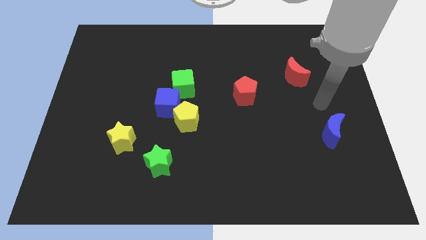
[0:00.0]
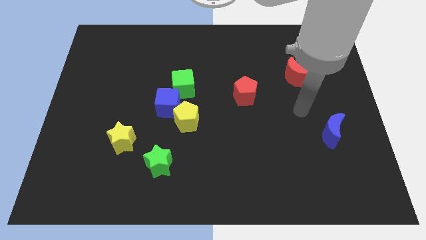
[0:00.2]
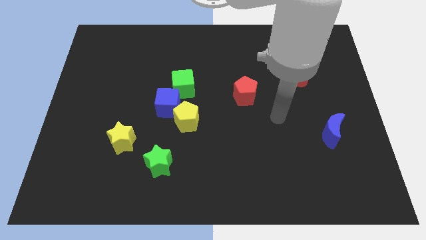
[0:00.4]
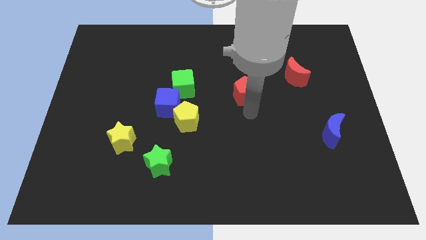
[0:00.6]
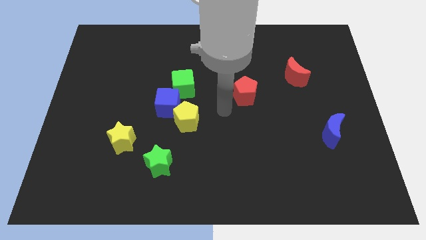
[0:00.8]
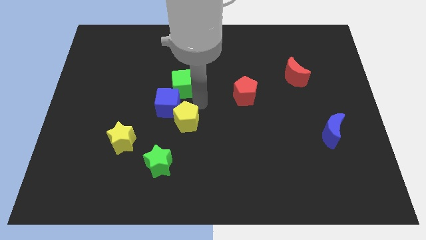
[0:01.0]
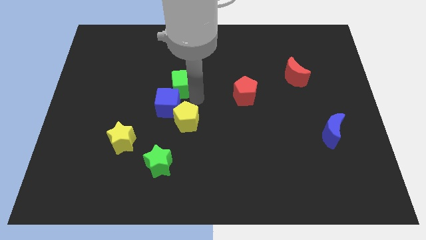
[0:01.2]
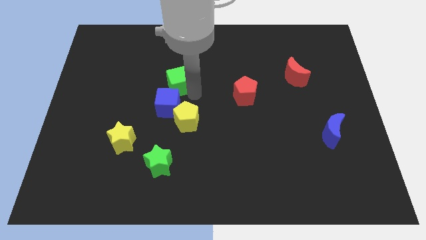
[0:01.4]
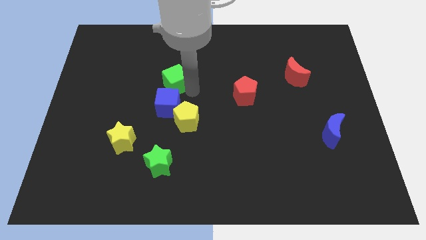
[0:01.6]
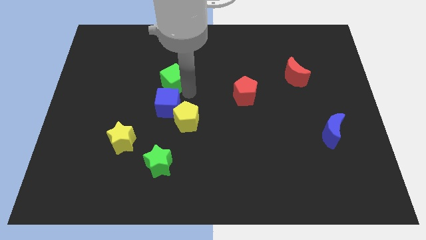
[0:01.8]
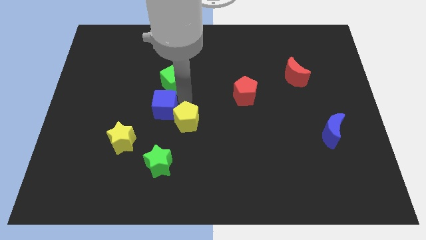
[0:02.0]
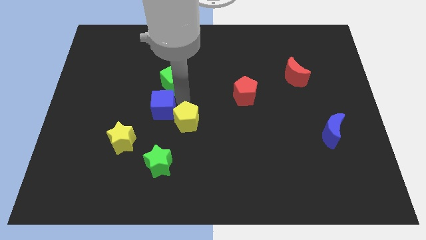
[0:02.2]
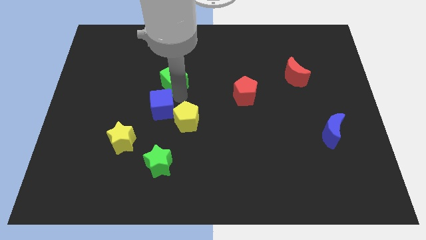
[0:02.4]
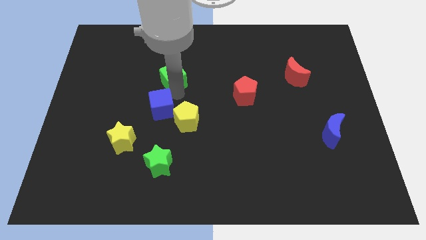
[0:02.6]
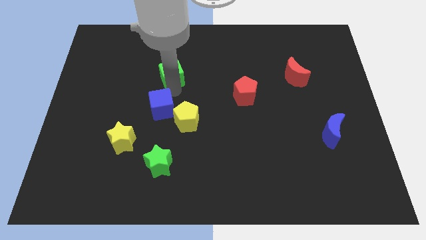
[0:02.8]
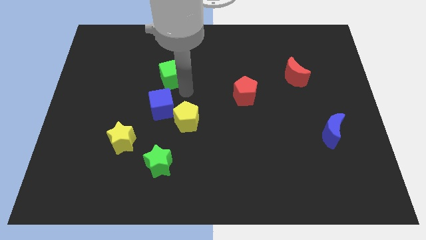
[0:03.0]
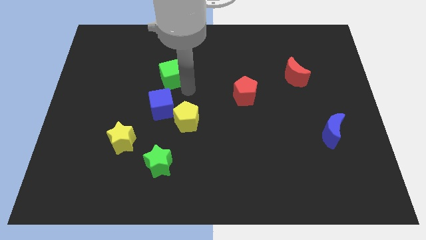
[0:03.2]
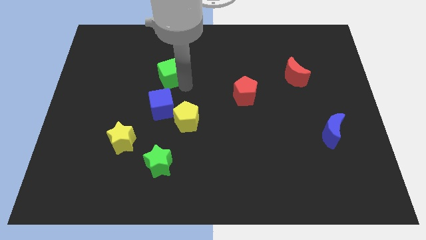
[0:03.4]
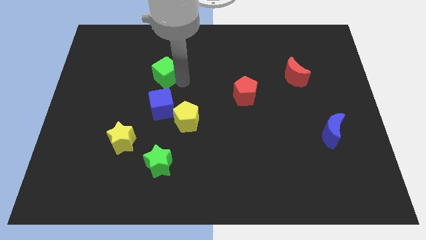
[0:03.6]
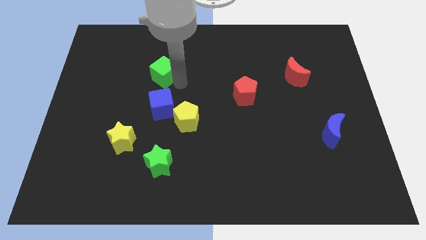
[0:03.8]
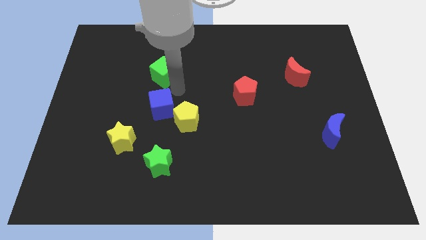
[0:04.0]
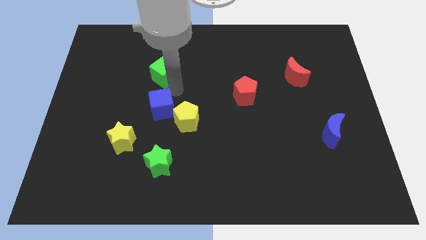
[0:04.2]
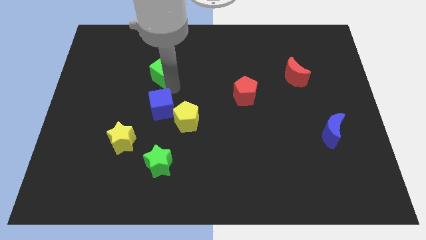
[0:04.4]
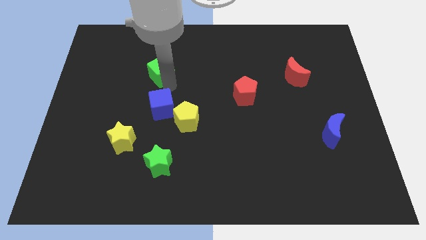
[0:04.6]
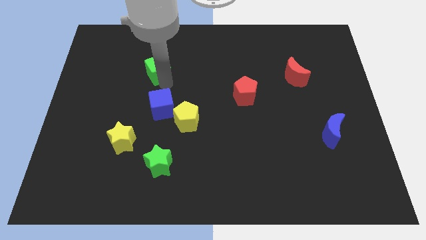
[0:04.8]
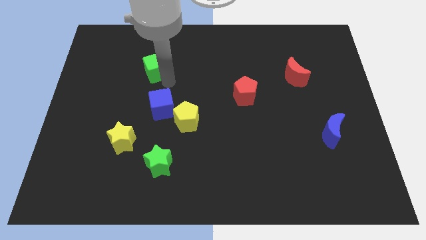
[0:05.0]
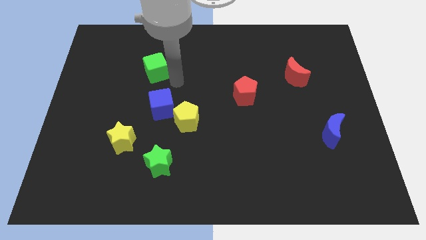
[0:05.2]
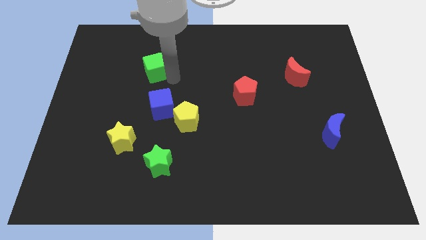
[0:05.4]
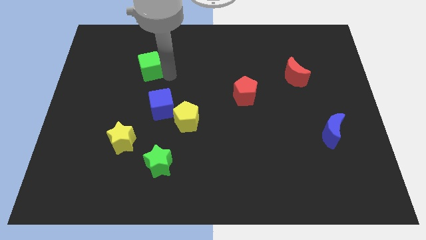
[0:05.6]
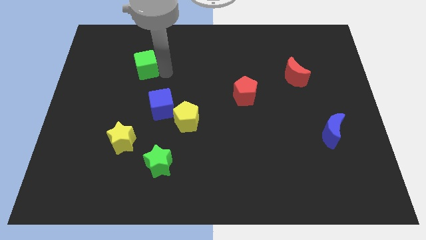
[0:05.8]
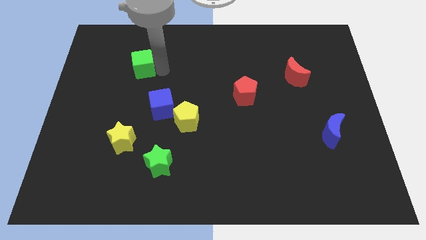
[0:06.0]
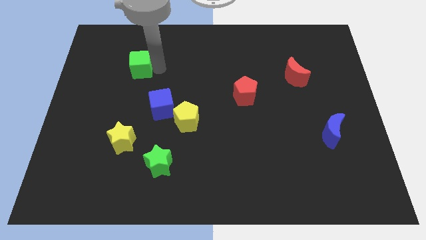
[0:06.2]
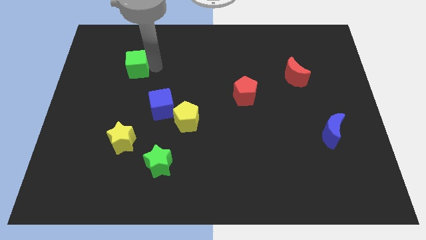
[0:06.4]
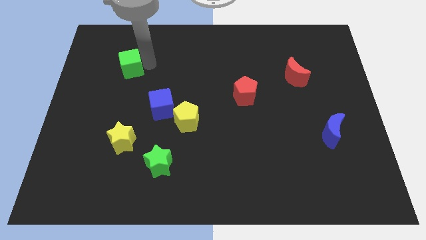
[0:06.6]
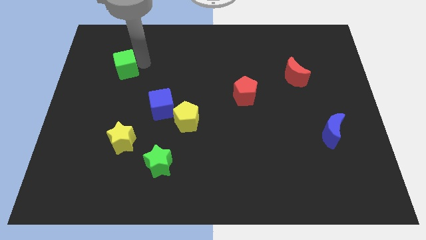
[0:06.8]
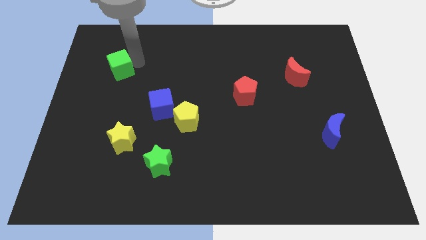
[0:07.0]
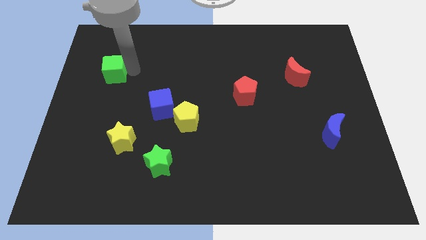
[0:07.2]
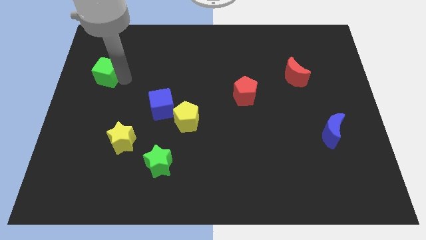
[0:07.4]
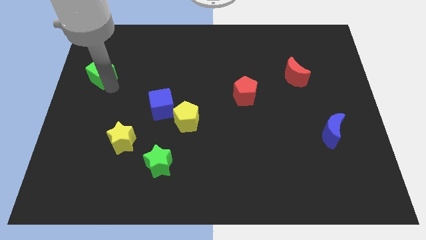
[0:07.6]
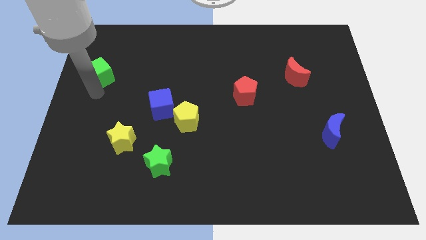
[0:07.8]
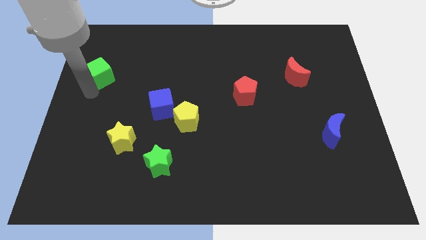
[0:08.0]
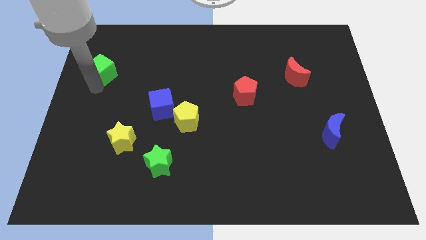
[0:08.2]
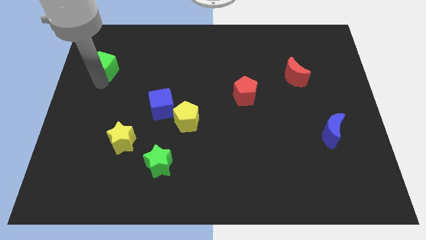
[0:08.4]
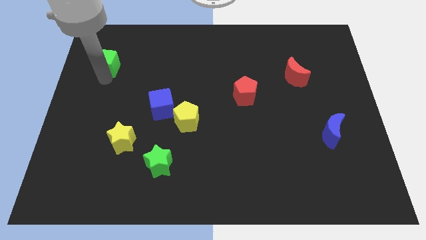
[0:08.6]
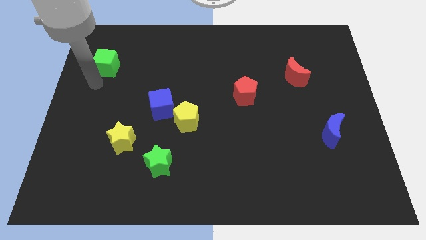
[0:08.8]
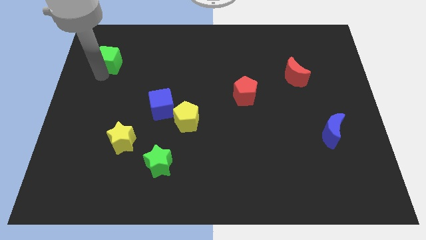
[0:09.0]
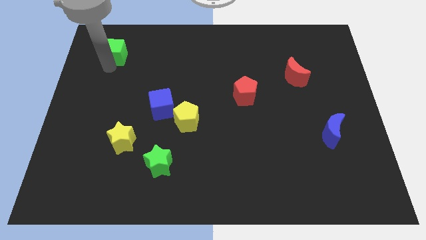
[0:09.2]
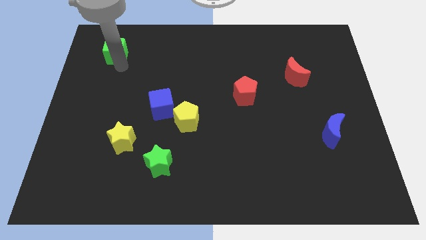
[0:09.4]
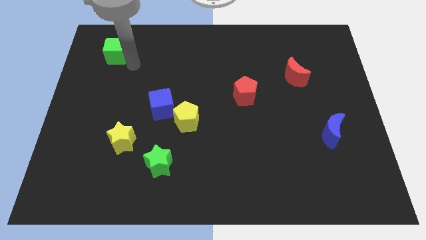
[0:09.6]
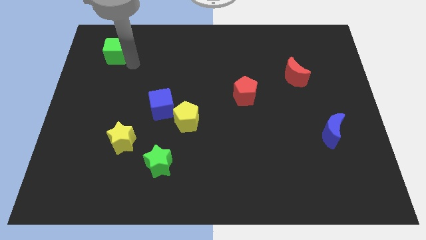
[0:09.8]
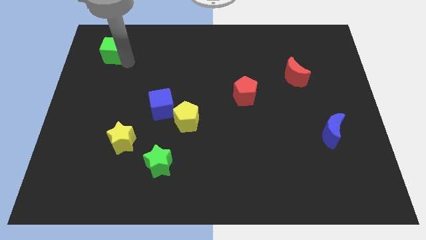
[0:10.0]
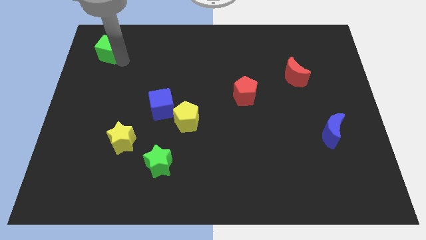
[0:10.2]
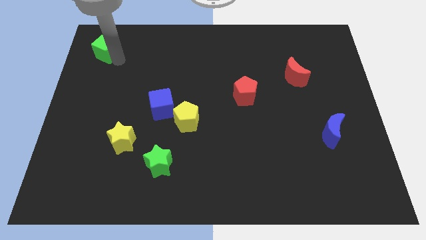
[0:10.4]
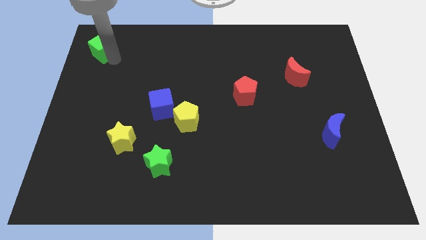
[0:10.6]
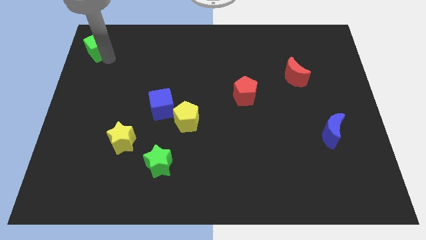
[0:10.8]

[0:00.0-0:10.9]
put the green cube to the upper left corner
